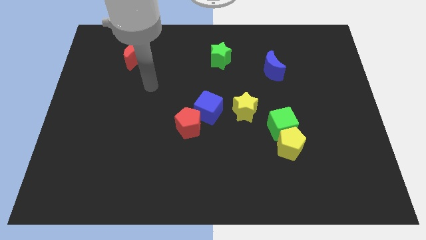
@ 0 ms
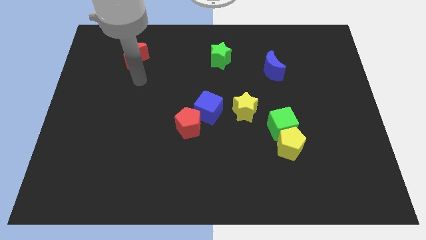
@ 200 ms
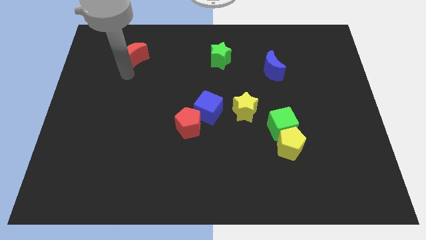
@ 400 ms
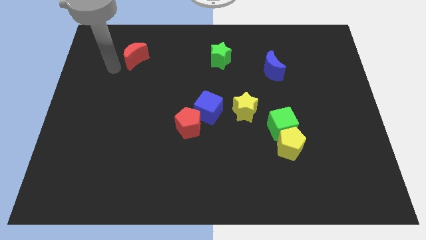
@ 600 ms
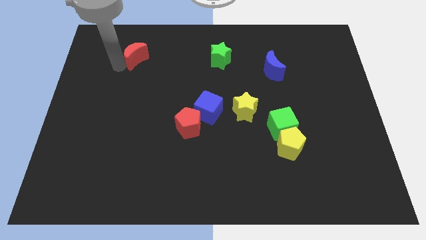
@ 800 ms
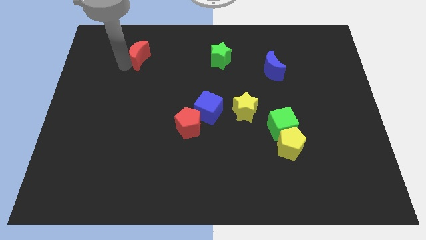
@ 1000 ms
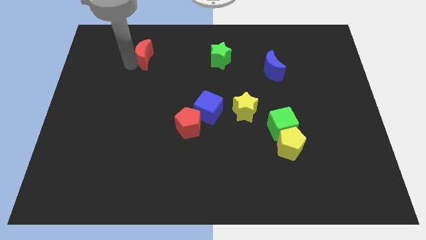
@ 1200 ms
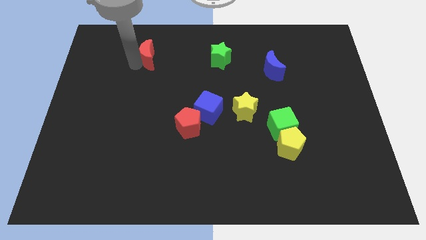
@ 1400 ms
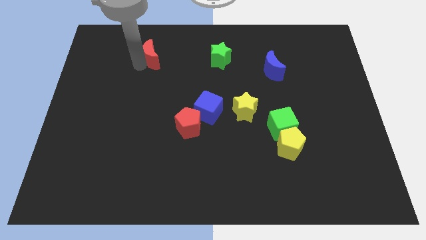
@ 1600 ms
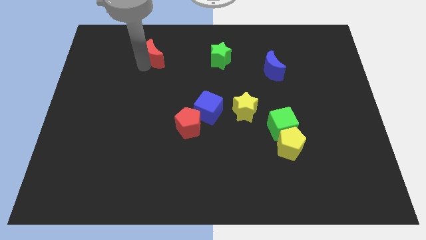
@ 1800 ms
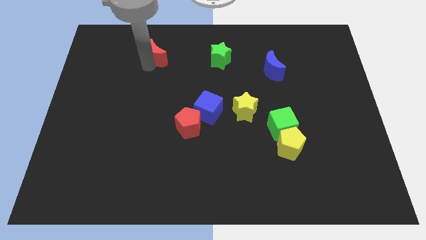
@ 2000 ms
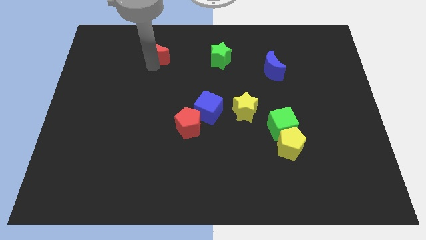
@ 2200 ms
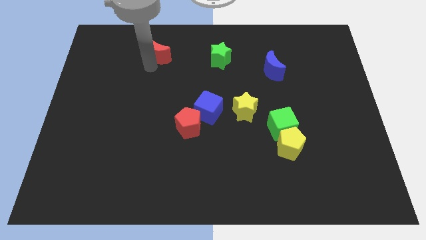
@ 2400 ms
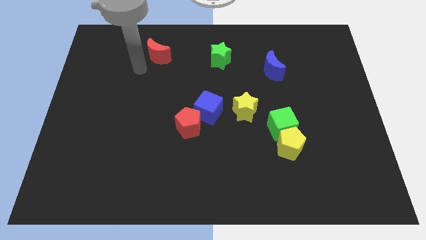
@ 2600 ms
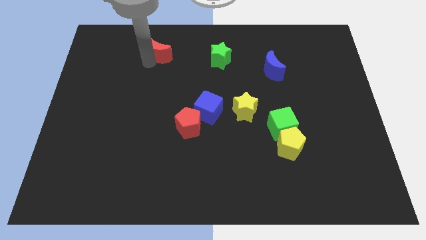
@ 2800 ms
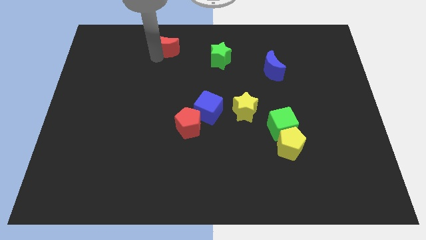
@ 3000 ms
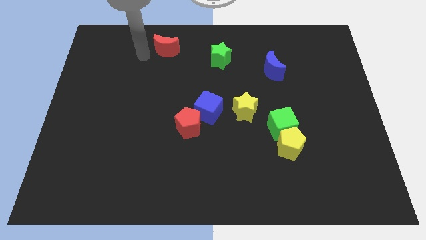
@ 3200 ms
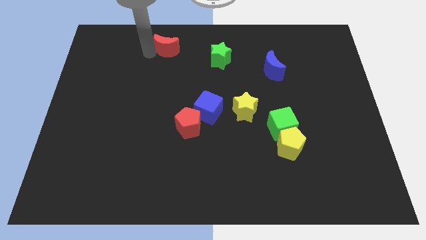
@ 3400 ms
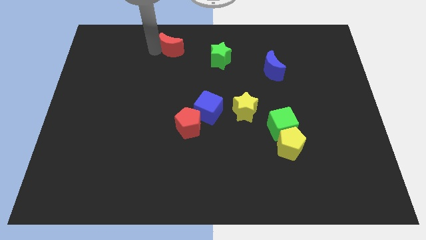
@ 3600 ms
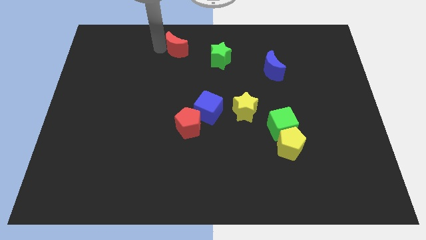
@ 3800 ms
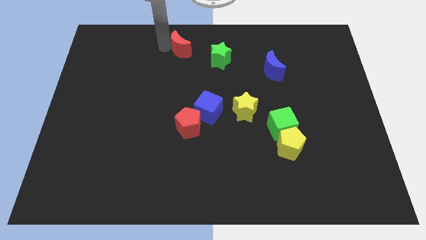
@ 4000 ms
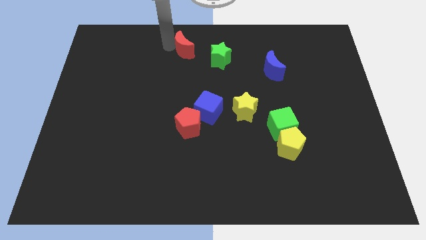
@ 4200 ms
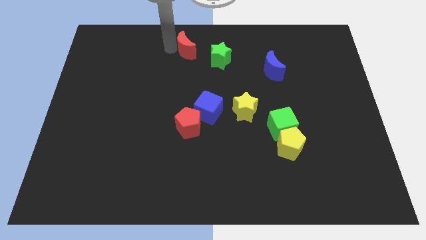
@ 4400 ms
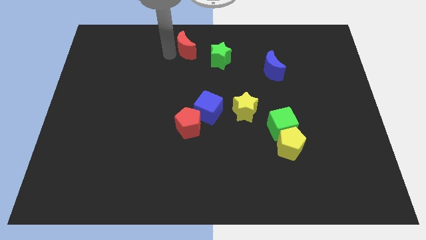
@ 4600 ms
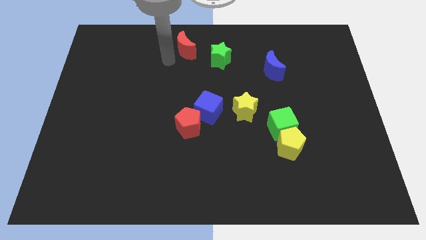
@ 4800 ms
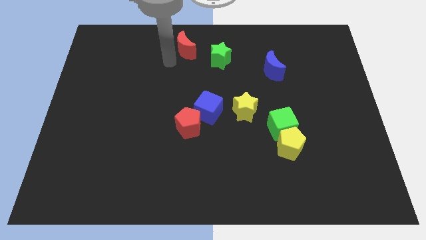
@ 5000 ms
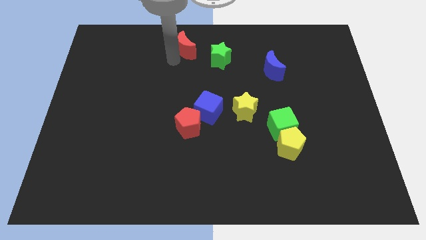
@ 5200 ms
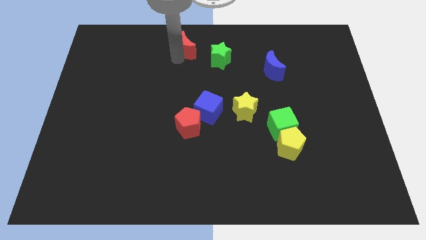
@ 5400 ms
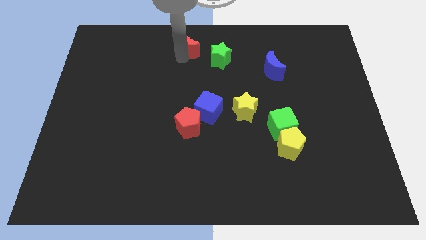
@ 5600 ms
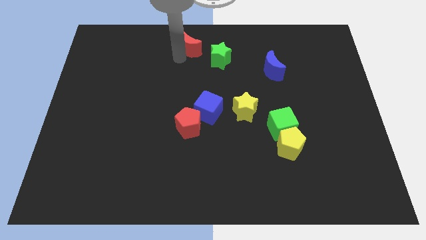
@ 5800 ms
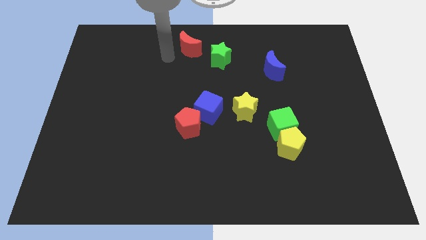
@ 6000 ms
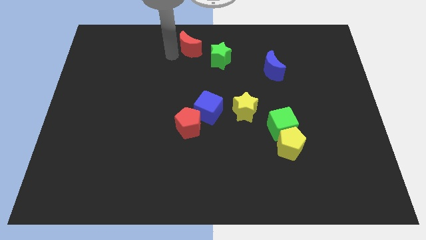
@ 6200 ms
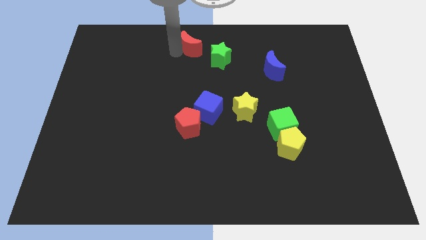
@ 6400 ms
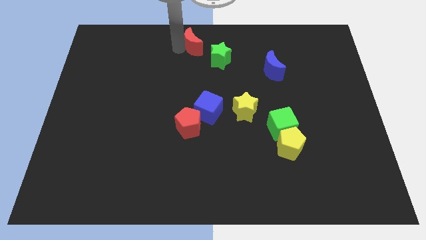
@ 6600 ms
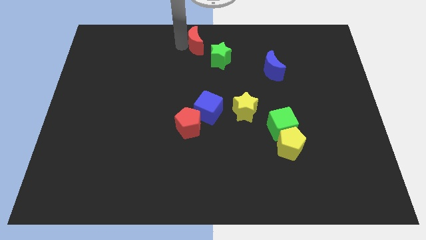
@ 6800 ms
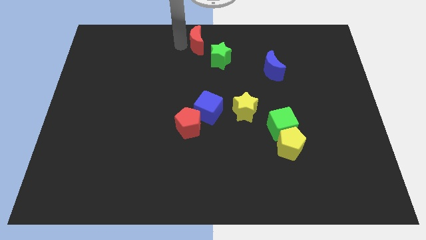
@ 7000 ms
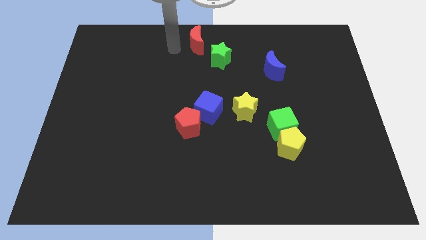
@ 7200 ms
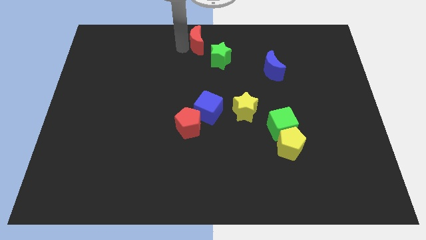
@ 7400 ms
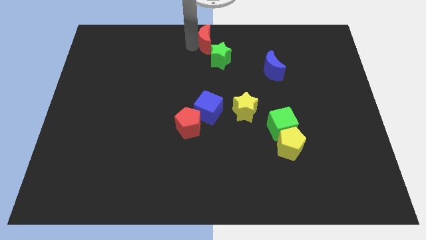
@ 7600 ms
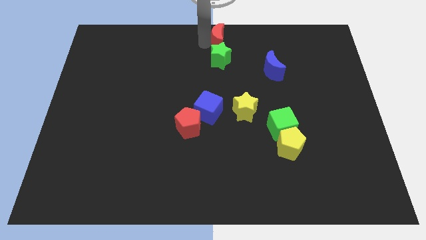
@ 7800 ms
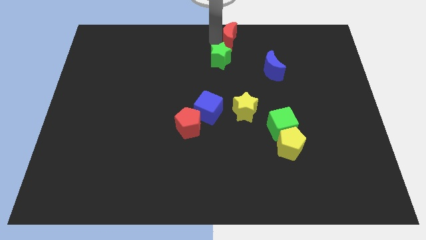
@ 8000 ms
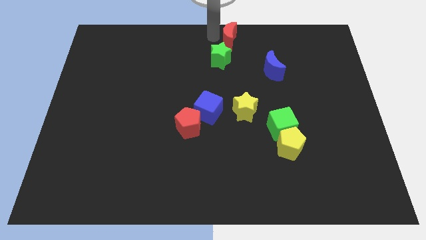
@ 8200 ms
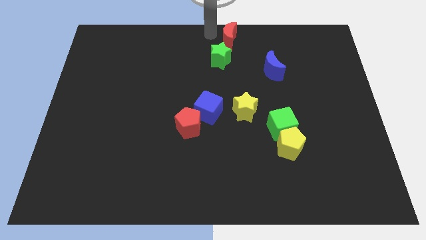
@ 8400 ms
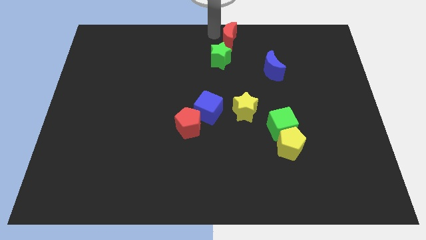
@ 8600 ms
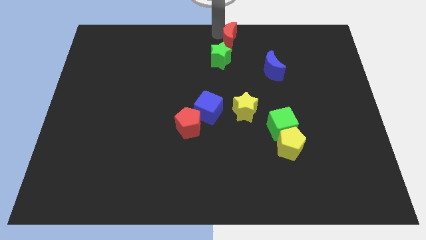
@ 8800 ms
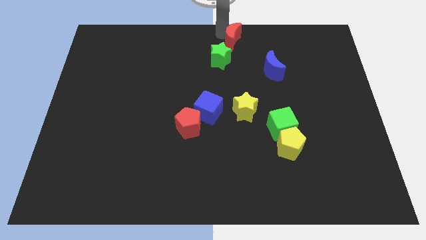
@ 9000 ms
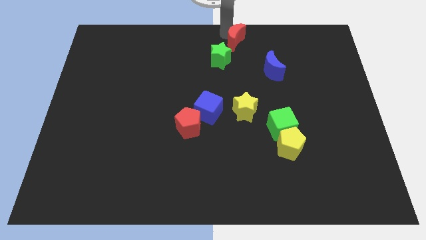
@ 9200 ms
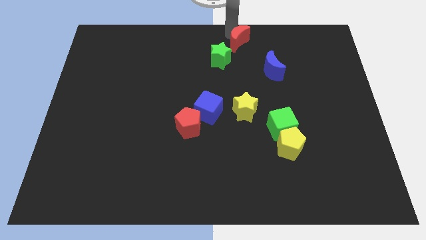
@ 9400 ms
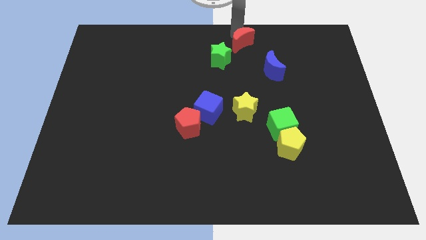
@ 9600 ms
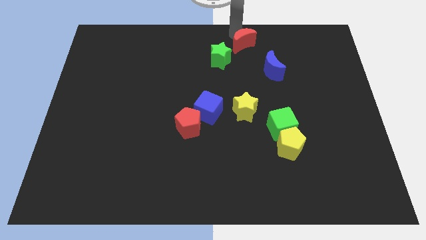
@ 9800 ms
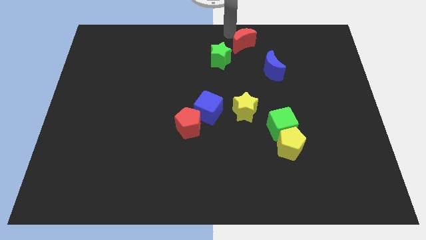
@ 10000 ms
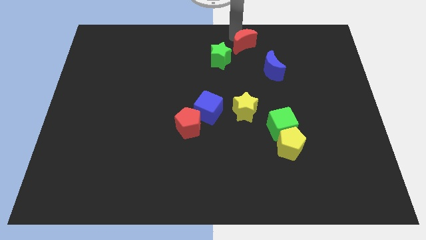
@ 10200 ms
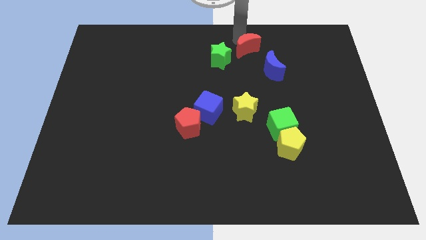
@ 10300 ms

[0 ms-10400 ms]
put the red moon to the right of the green star

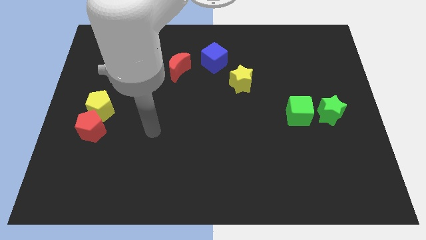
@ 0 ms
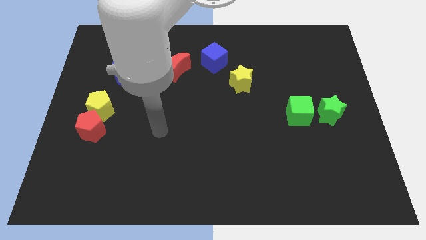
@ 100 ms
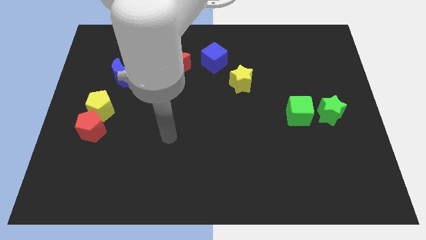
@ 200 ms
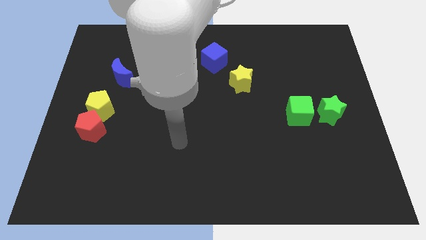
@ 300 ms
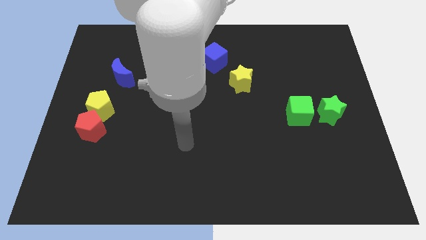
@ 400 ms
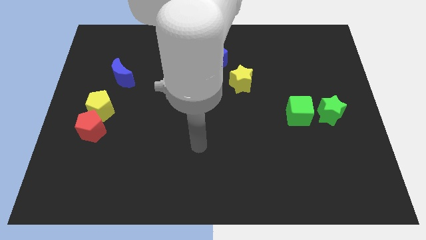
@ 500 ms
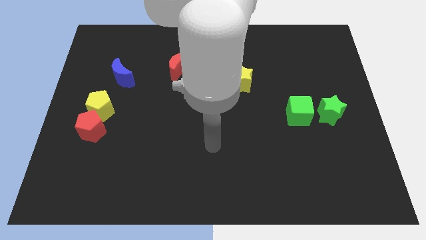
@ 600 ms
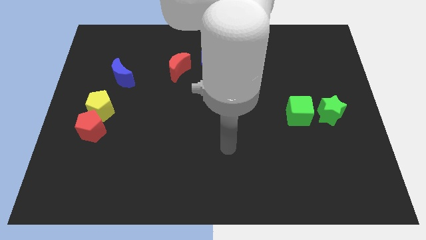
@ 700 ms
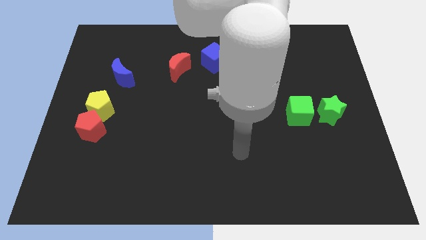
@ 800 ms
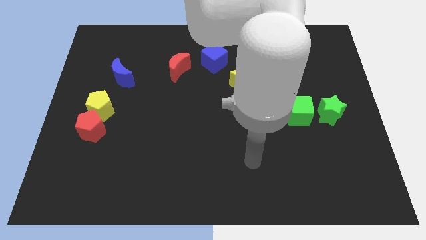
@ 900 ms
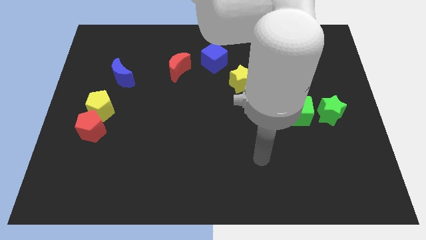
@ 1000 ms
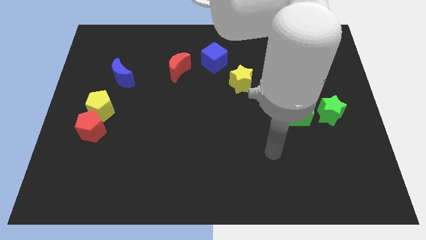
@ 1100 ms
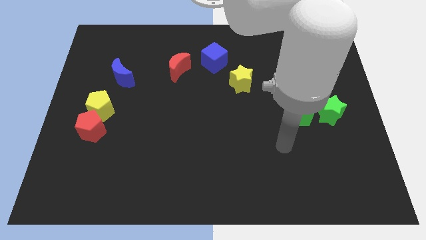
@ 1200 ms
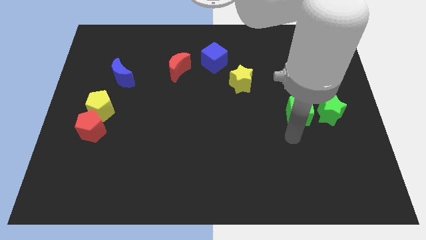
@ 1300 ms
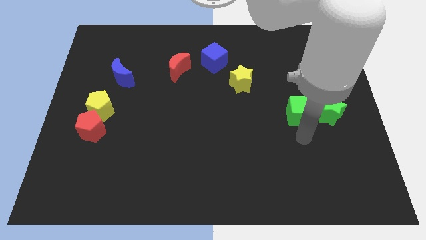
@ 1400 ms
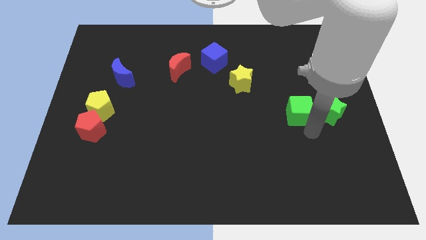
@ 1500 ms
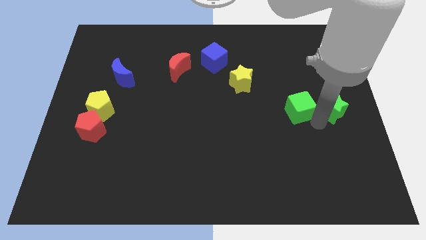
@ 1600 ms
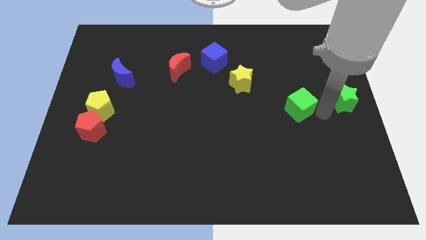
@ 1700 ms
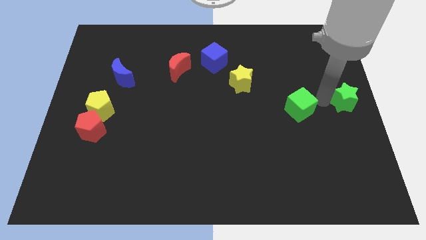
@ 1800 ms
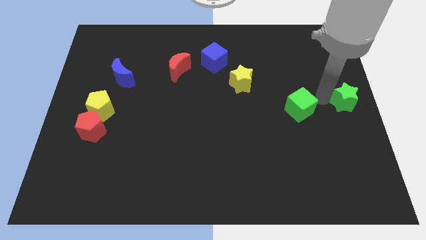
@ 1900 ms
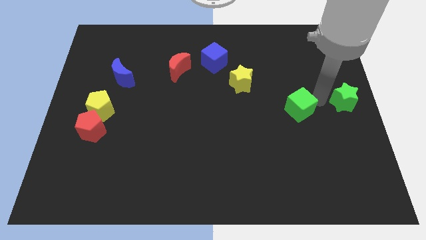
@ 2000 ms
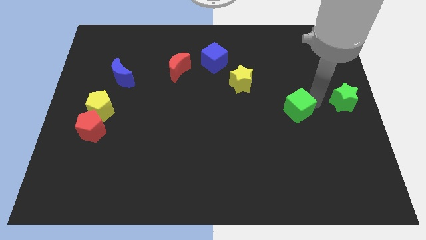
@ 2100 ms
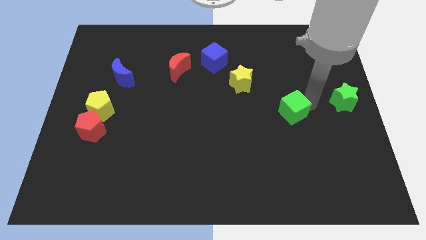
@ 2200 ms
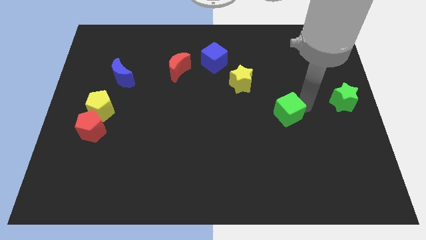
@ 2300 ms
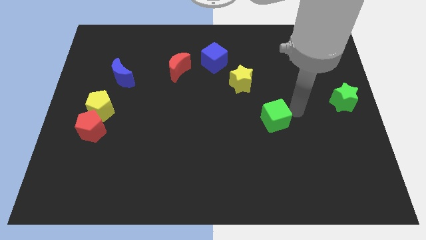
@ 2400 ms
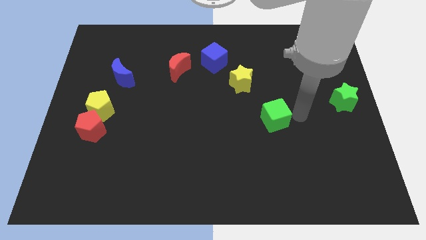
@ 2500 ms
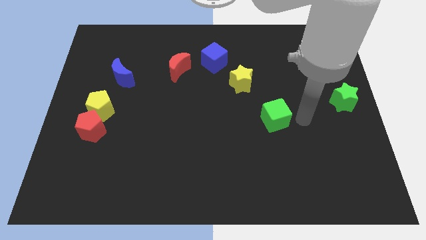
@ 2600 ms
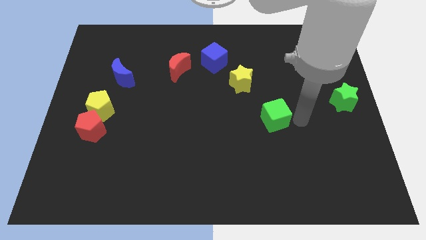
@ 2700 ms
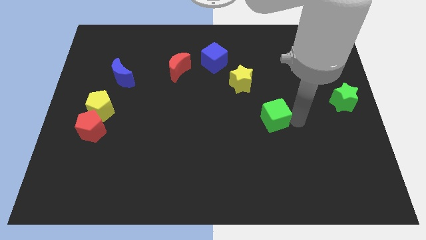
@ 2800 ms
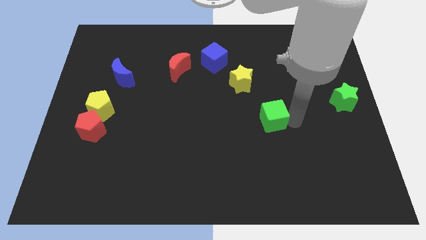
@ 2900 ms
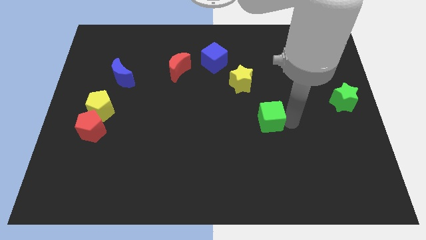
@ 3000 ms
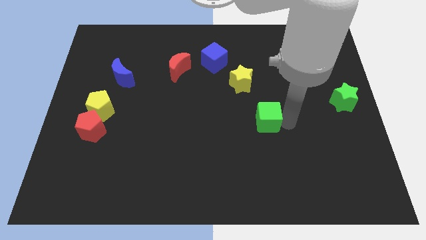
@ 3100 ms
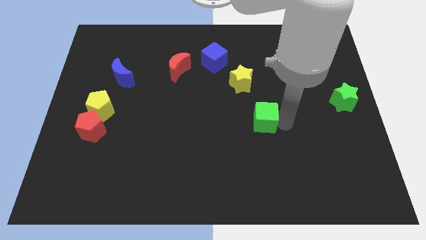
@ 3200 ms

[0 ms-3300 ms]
slide the green cube to the bottom of the yellow star
